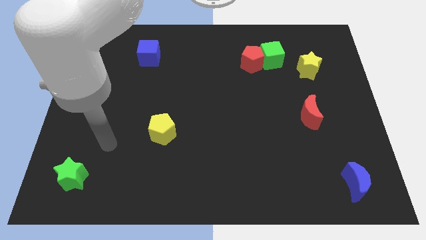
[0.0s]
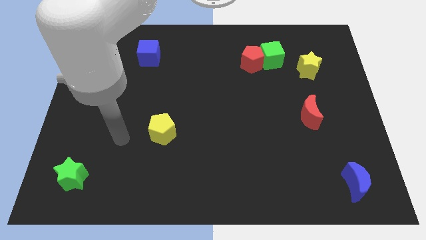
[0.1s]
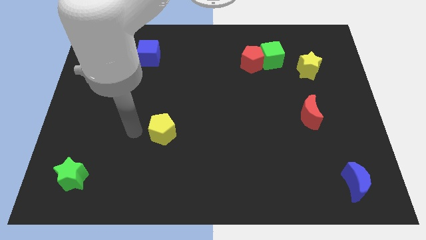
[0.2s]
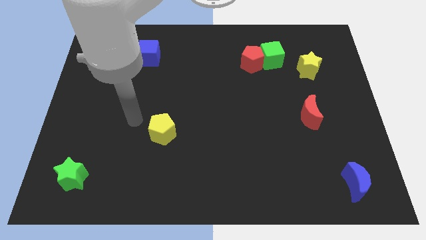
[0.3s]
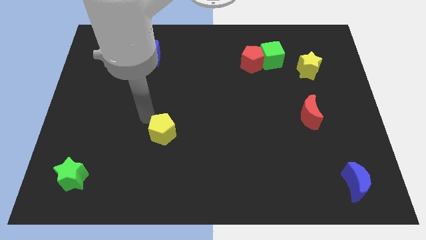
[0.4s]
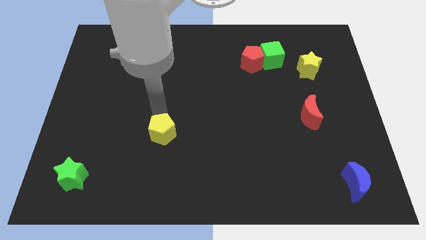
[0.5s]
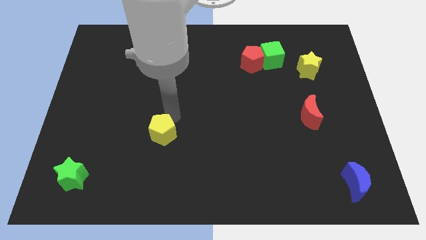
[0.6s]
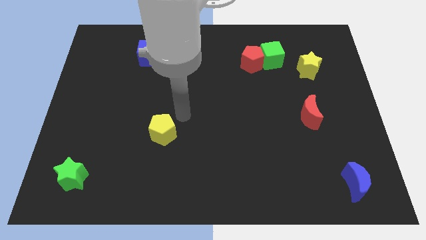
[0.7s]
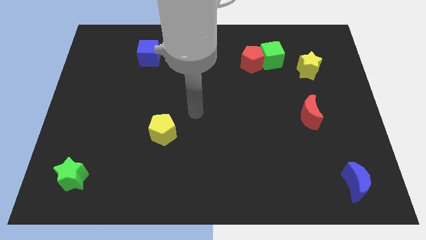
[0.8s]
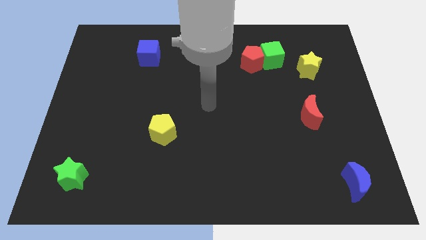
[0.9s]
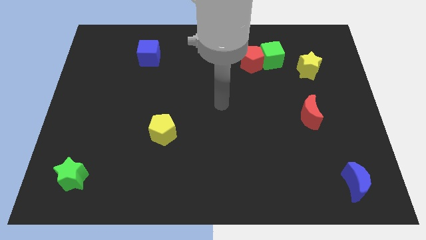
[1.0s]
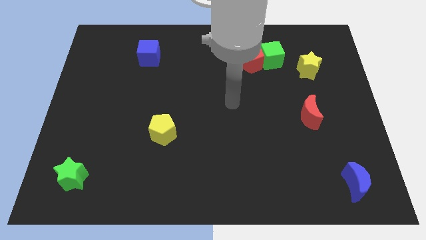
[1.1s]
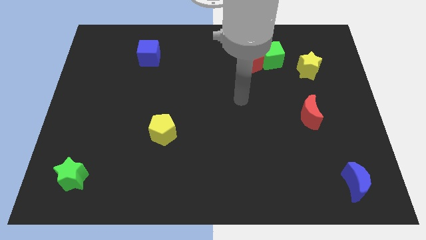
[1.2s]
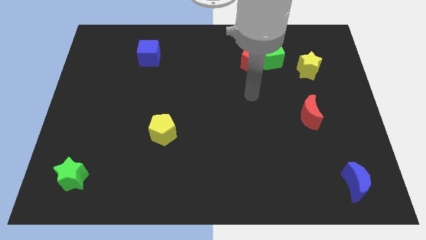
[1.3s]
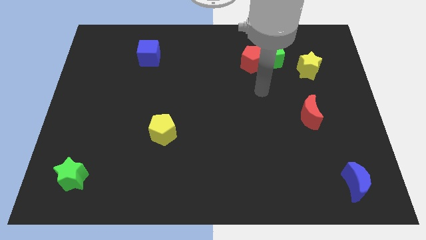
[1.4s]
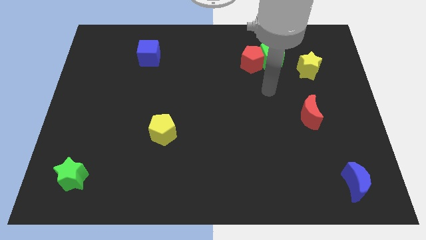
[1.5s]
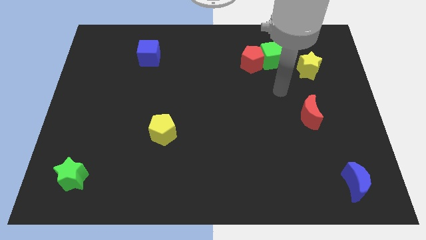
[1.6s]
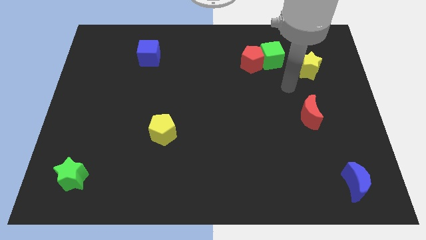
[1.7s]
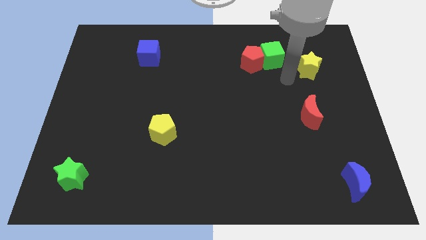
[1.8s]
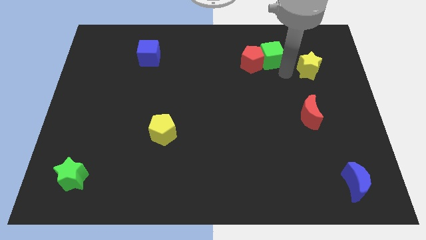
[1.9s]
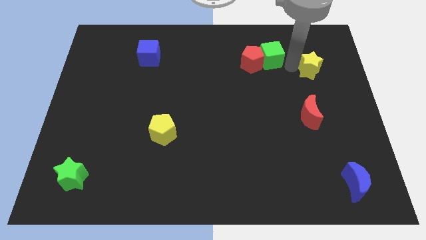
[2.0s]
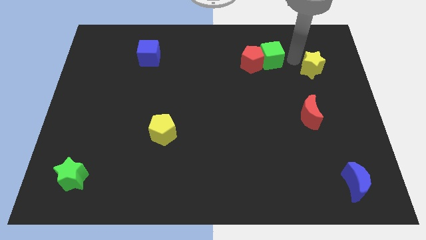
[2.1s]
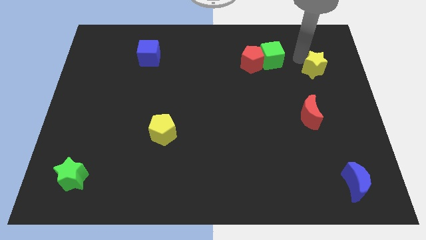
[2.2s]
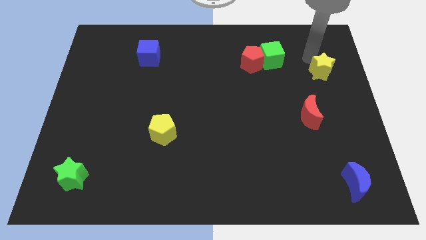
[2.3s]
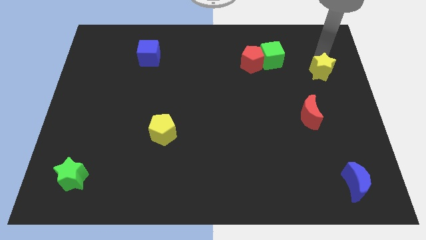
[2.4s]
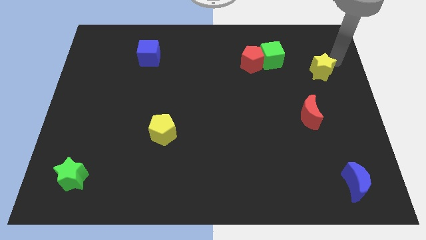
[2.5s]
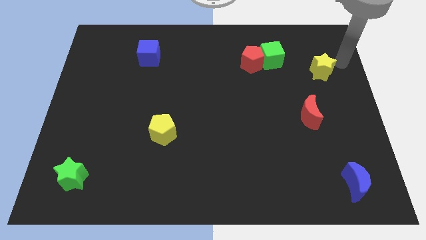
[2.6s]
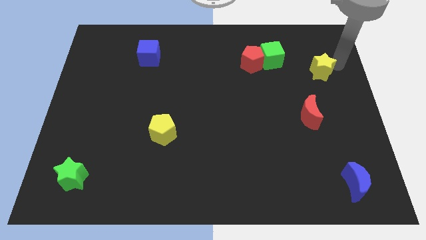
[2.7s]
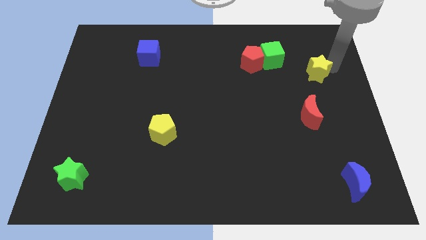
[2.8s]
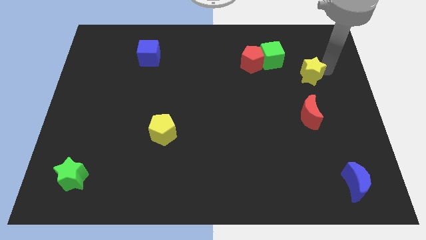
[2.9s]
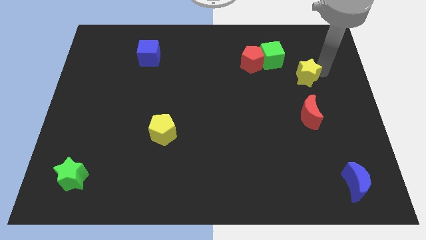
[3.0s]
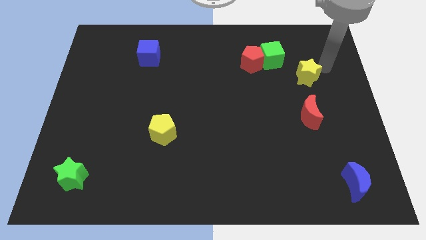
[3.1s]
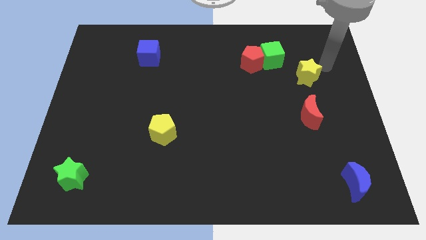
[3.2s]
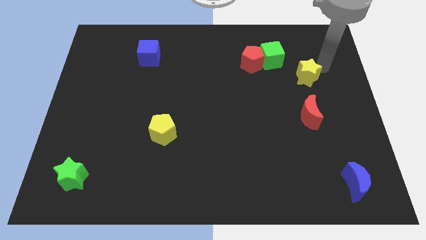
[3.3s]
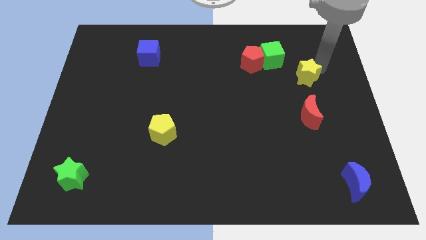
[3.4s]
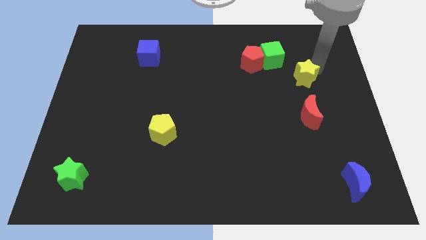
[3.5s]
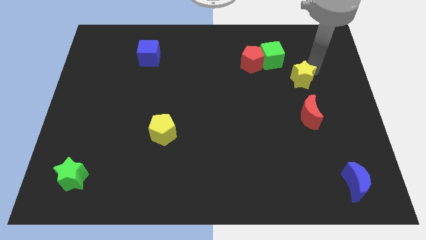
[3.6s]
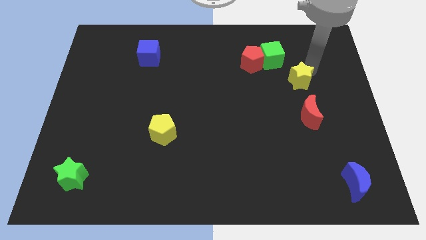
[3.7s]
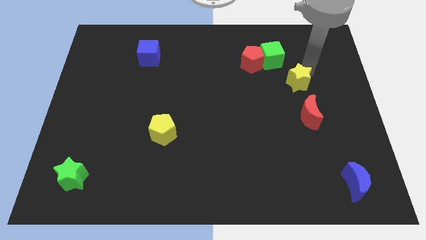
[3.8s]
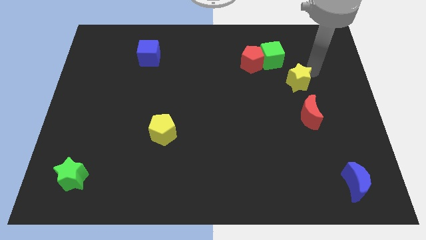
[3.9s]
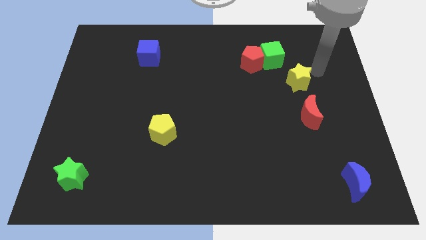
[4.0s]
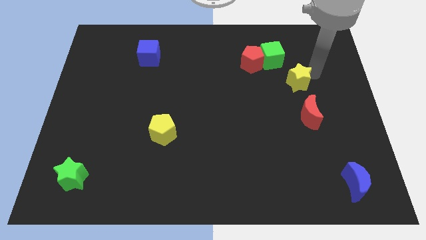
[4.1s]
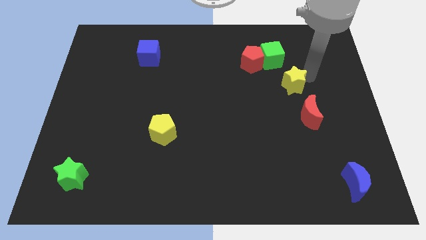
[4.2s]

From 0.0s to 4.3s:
slide the yellow star diagonally down and left slightly

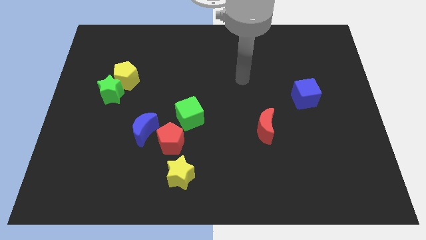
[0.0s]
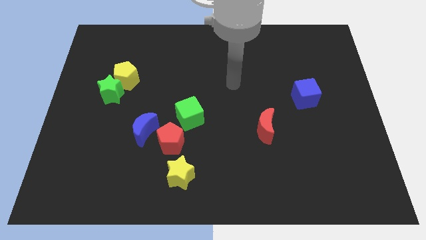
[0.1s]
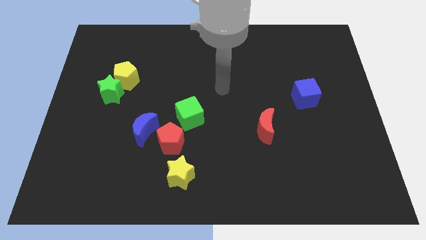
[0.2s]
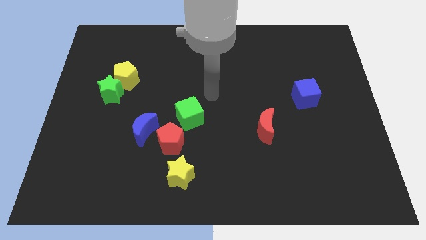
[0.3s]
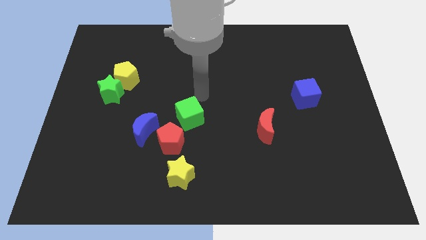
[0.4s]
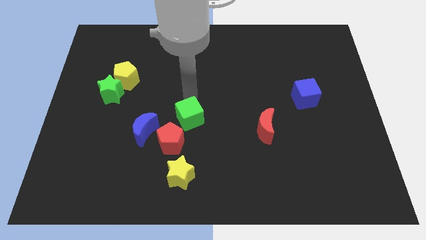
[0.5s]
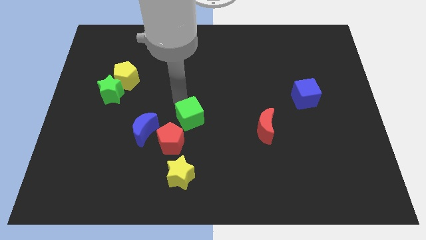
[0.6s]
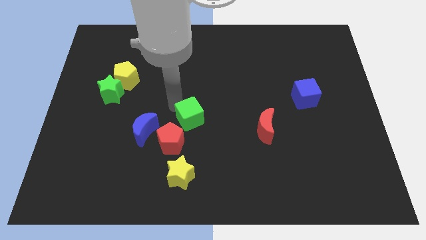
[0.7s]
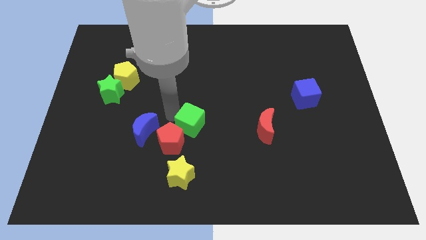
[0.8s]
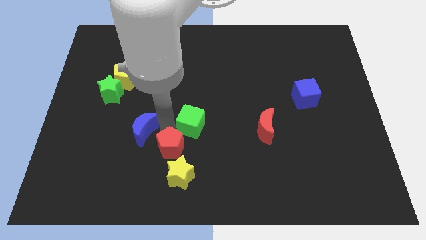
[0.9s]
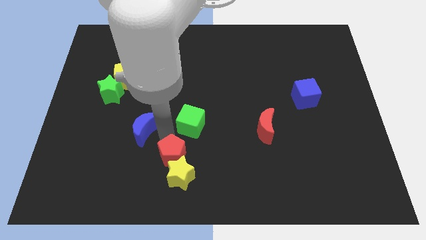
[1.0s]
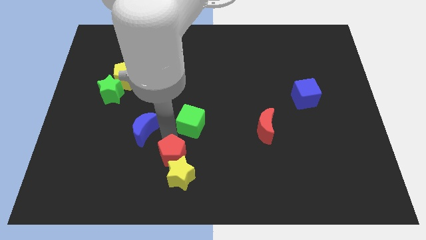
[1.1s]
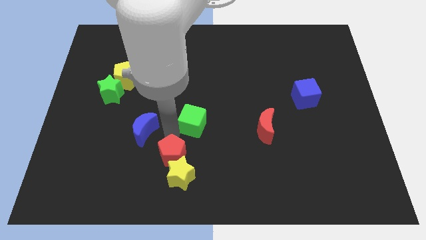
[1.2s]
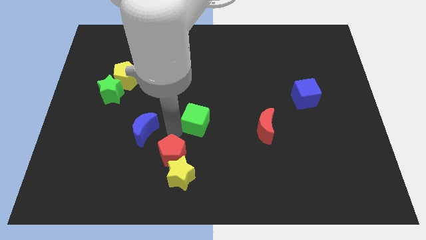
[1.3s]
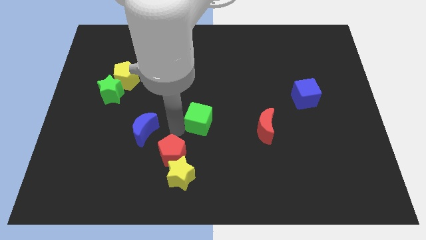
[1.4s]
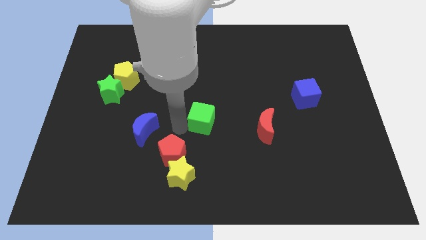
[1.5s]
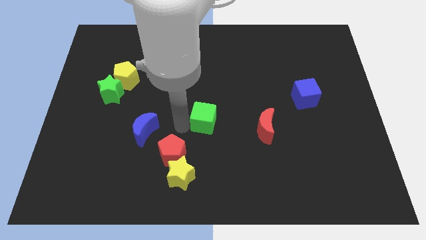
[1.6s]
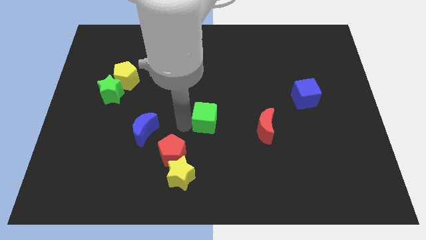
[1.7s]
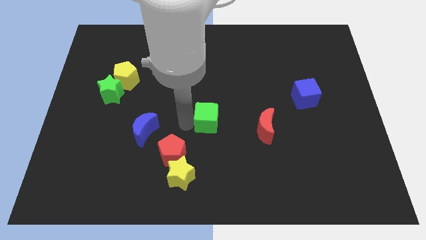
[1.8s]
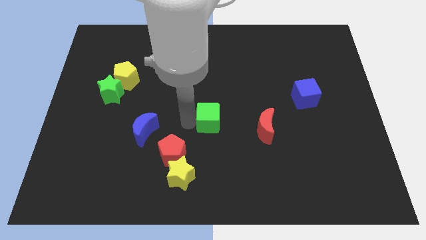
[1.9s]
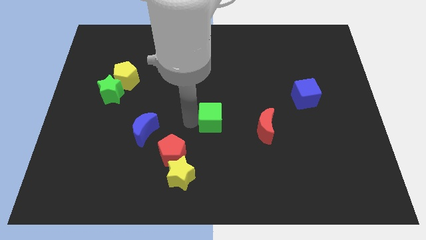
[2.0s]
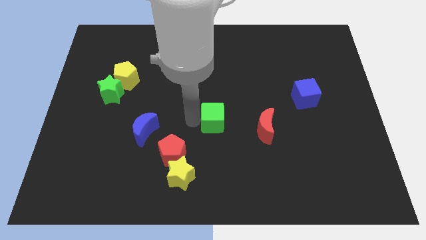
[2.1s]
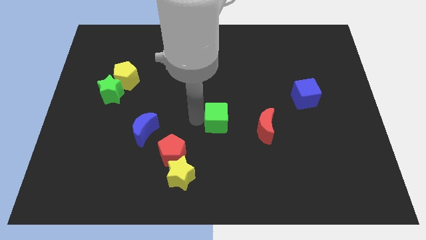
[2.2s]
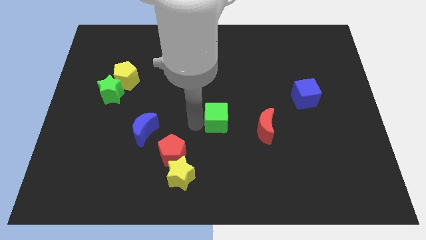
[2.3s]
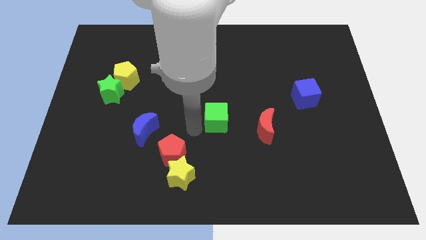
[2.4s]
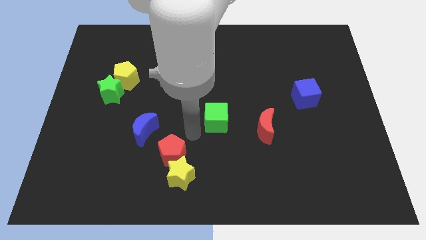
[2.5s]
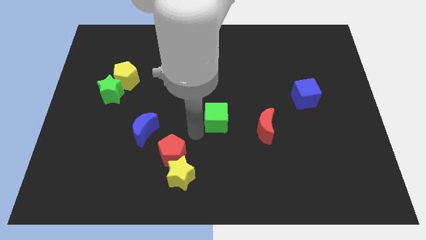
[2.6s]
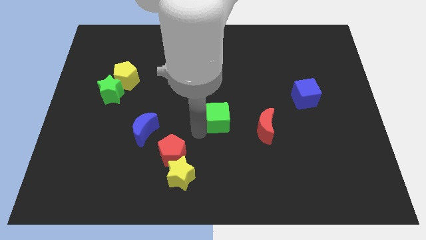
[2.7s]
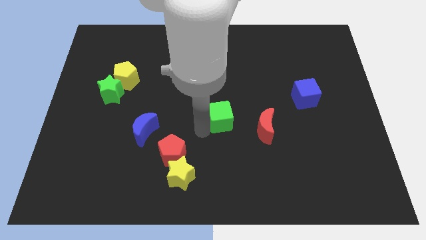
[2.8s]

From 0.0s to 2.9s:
slightly slide the green cube to the right
